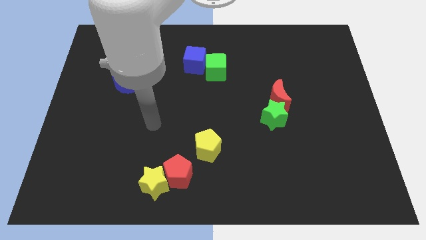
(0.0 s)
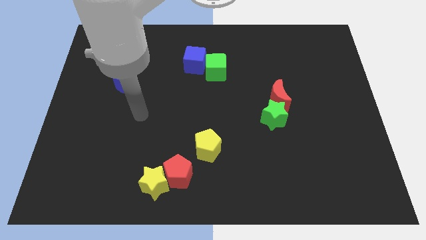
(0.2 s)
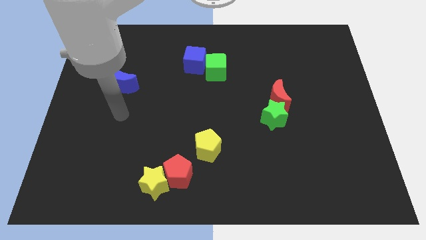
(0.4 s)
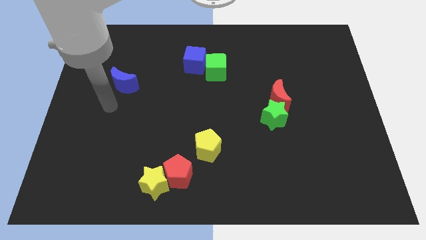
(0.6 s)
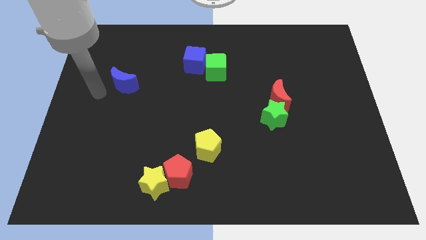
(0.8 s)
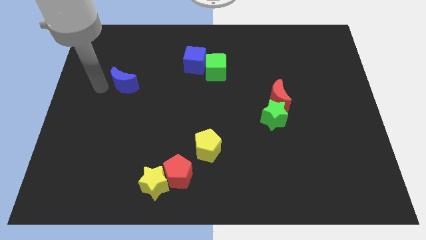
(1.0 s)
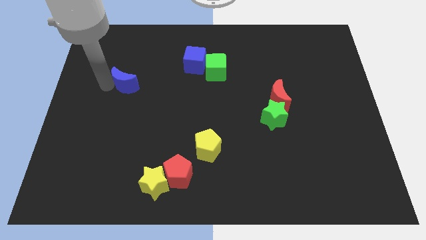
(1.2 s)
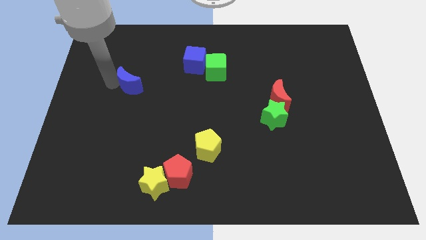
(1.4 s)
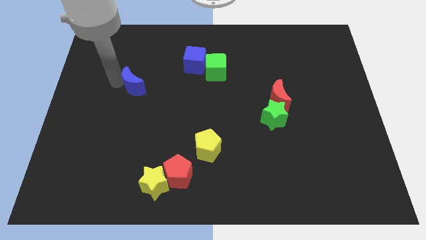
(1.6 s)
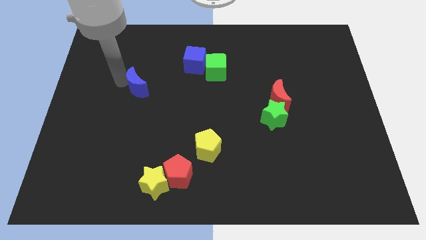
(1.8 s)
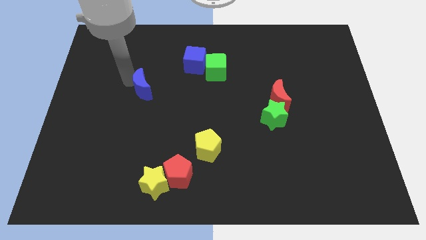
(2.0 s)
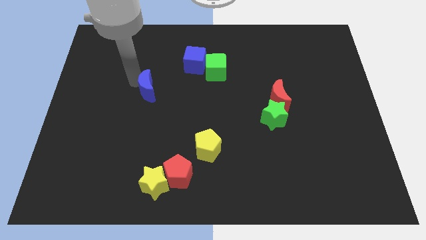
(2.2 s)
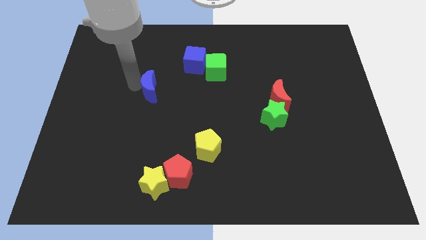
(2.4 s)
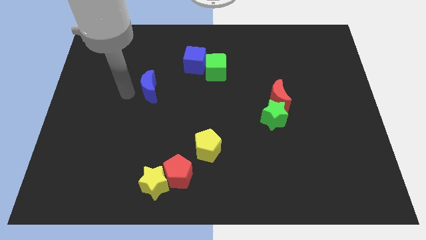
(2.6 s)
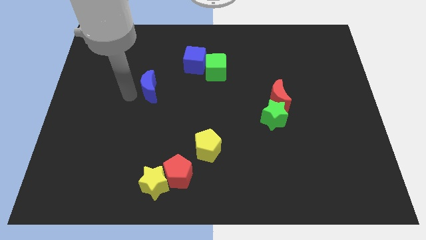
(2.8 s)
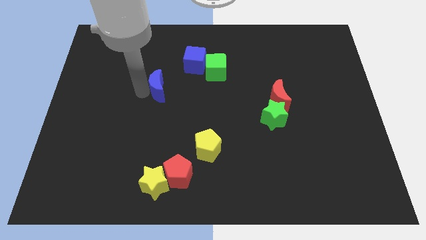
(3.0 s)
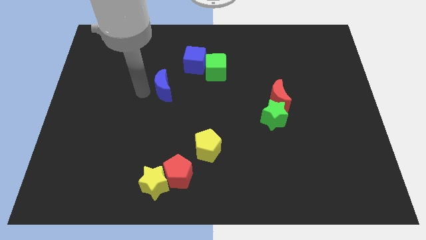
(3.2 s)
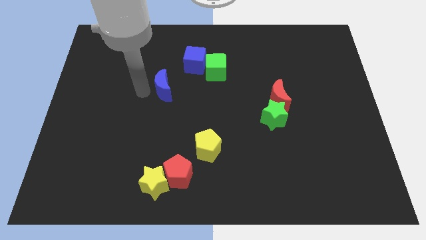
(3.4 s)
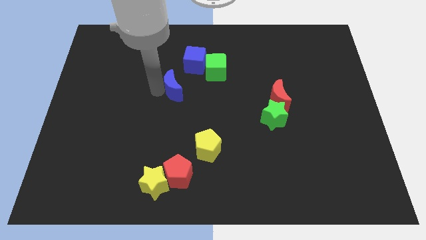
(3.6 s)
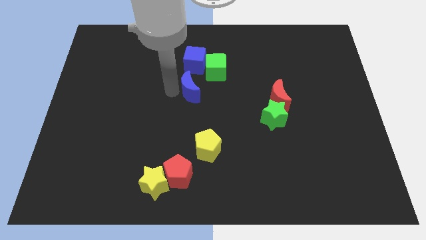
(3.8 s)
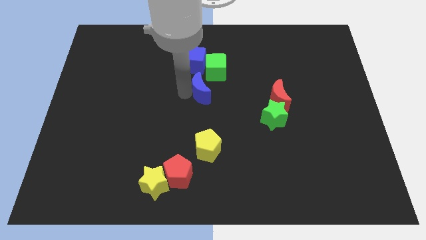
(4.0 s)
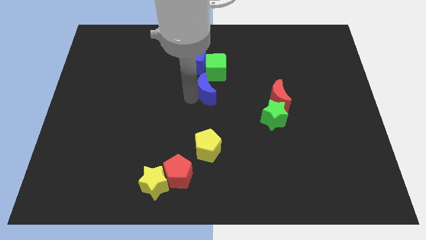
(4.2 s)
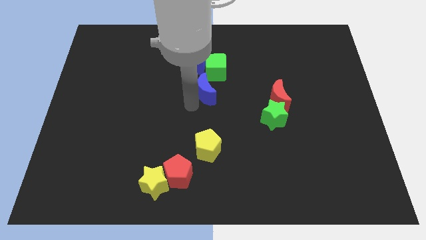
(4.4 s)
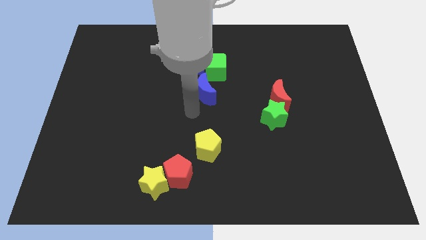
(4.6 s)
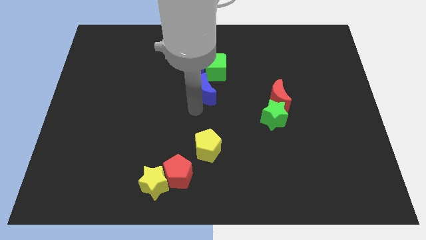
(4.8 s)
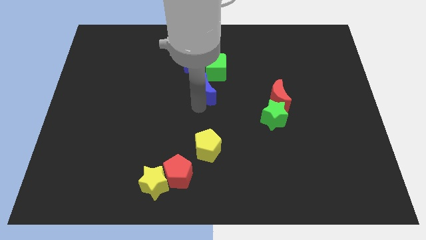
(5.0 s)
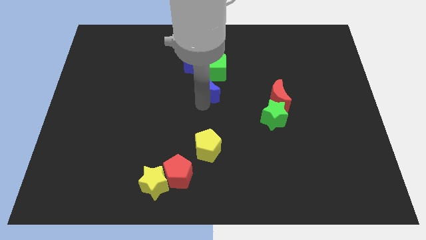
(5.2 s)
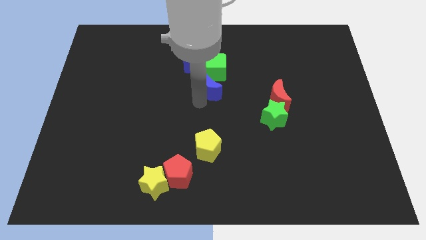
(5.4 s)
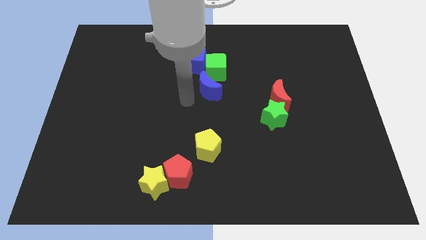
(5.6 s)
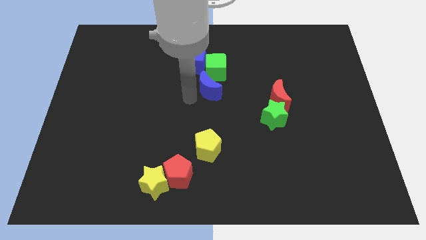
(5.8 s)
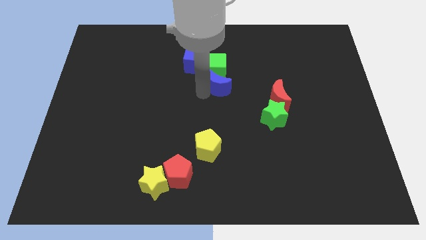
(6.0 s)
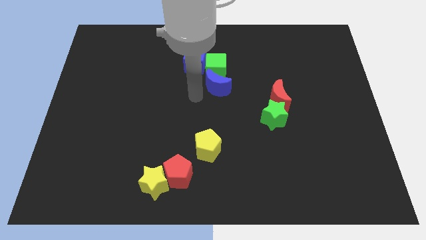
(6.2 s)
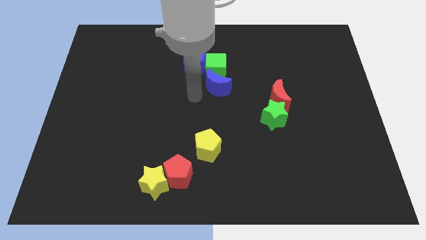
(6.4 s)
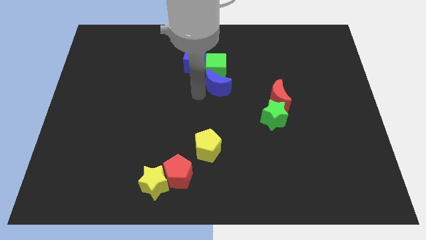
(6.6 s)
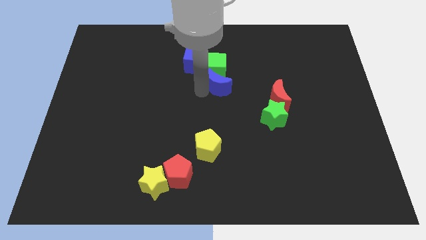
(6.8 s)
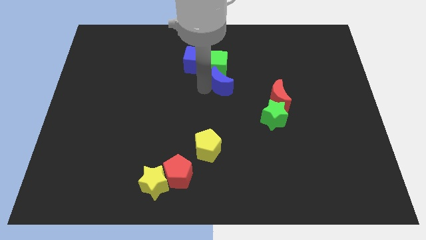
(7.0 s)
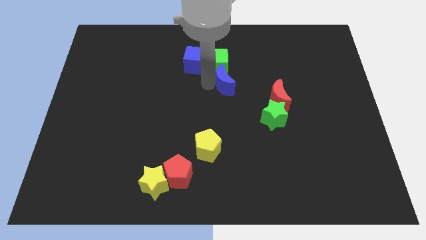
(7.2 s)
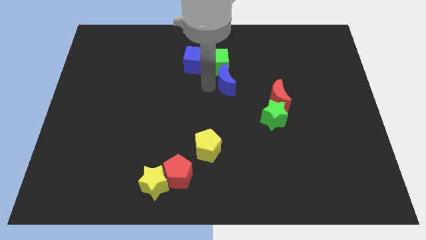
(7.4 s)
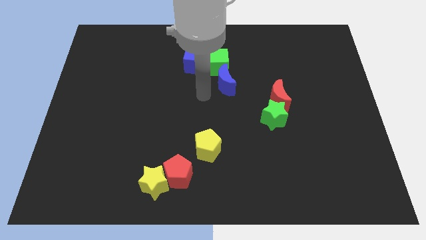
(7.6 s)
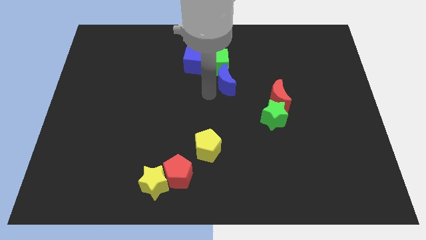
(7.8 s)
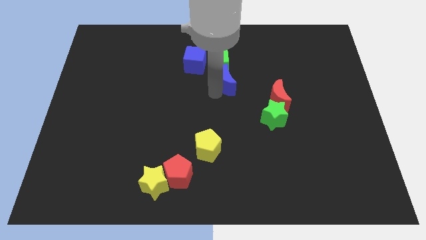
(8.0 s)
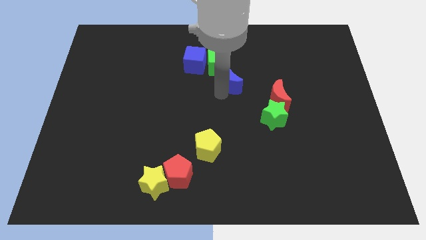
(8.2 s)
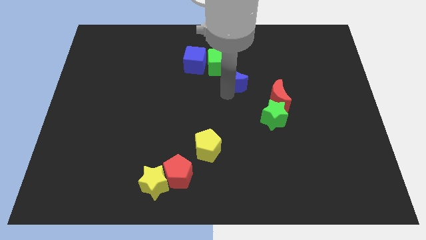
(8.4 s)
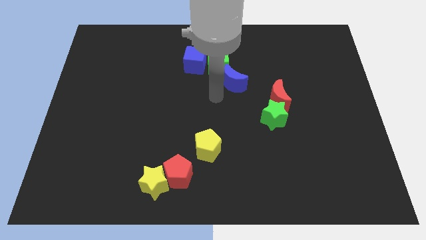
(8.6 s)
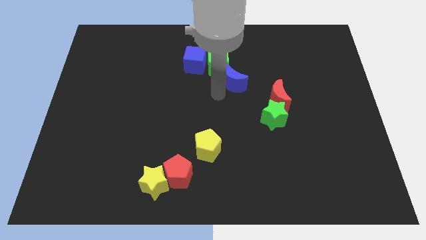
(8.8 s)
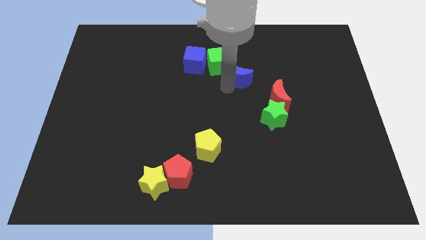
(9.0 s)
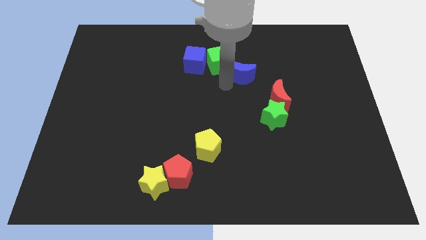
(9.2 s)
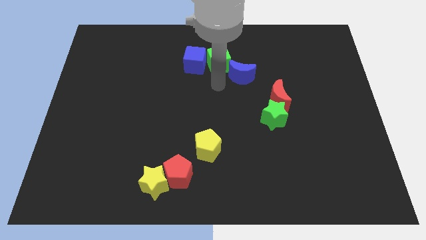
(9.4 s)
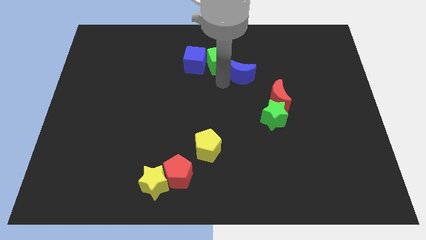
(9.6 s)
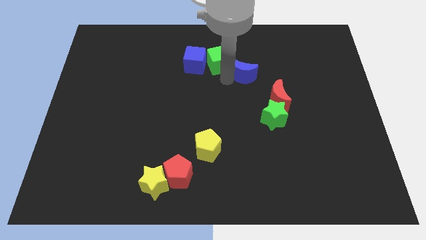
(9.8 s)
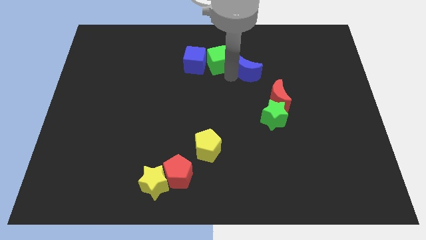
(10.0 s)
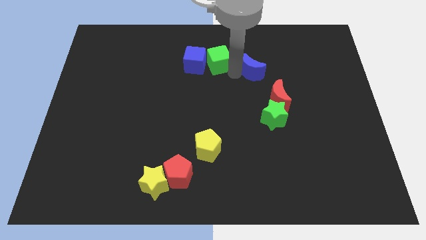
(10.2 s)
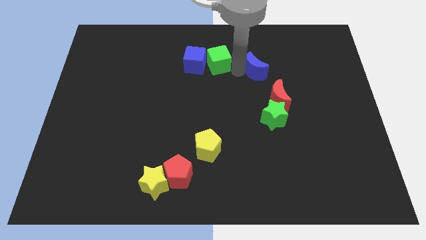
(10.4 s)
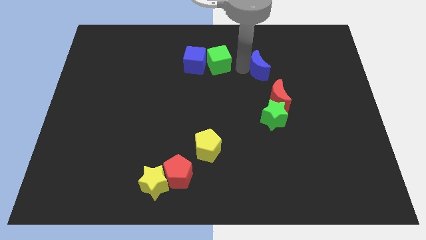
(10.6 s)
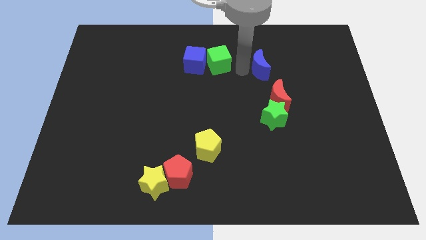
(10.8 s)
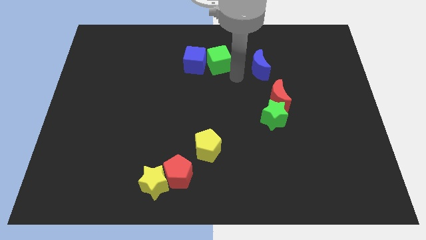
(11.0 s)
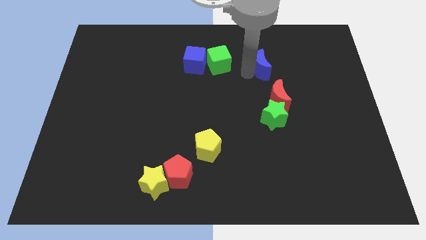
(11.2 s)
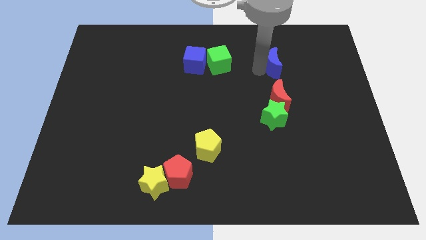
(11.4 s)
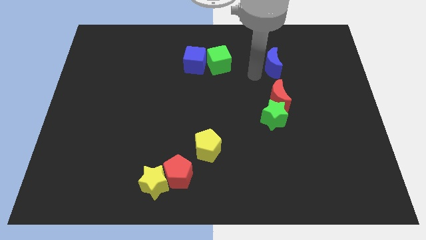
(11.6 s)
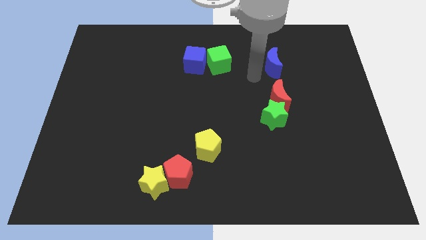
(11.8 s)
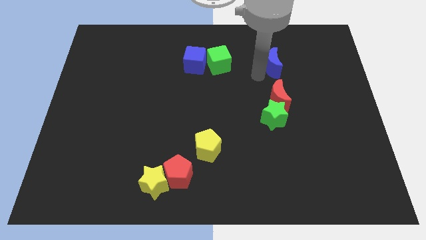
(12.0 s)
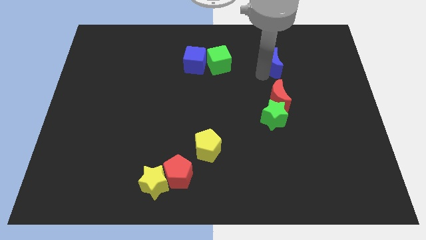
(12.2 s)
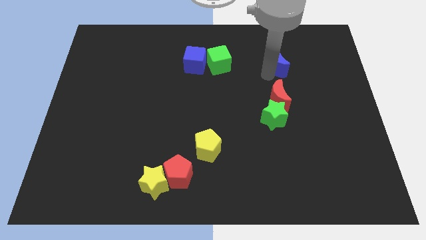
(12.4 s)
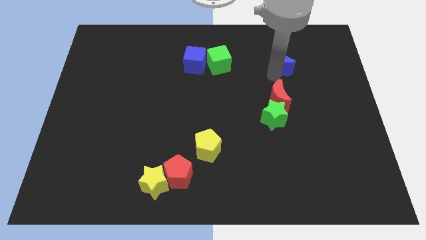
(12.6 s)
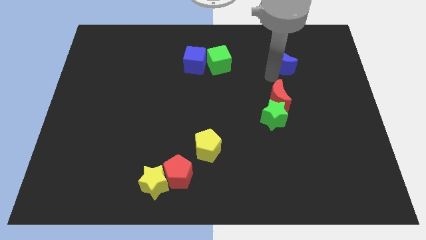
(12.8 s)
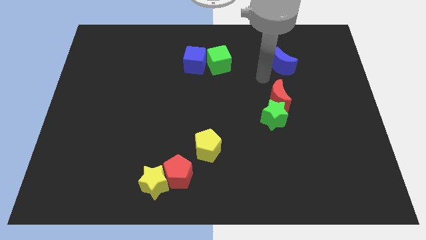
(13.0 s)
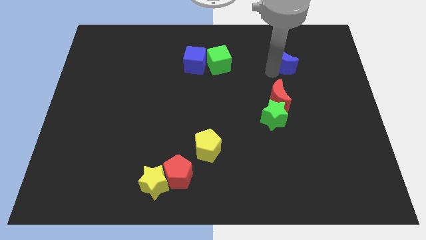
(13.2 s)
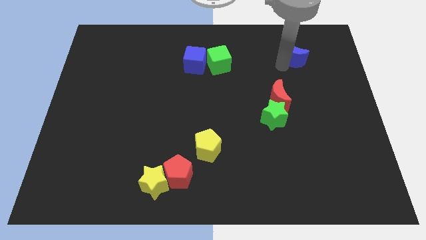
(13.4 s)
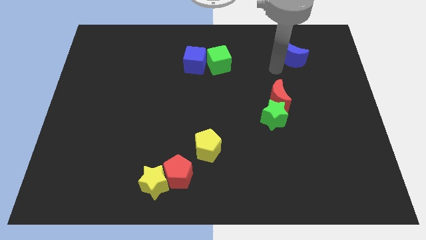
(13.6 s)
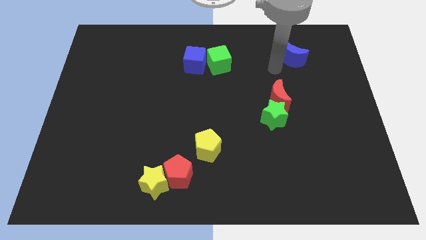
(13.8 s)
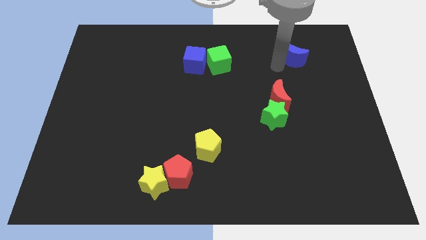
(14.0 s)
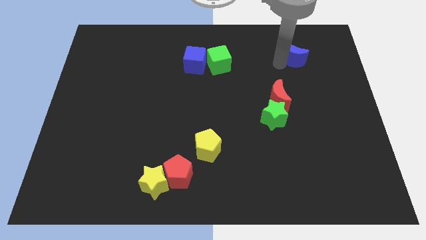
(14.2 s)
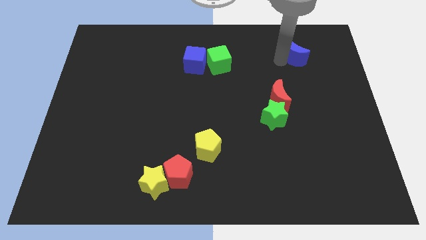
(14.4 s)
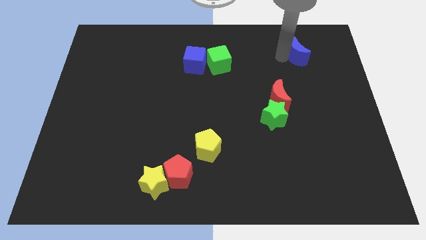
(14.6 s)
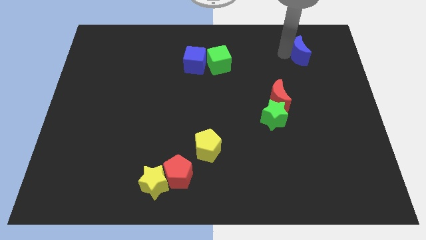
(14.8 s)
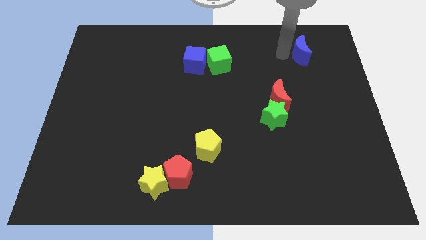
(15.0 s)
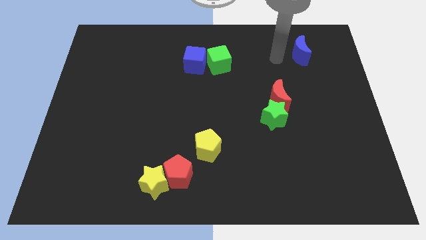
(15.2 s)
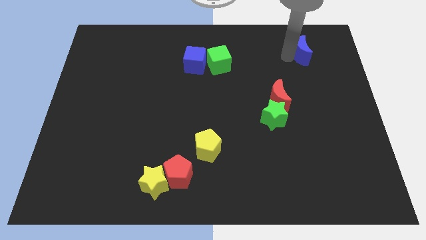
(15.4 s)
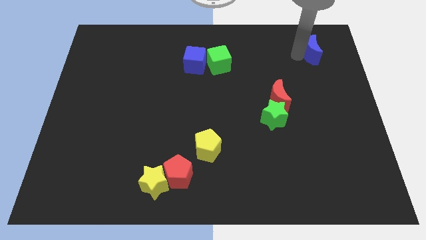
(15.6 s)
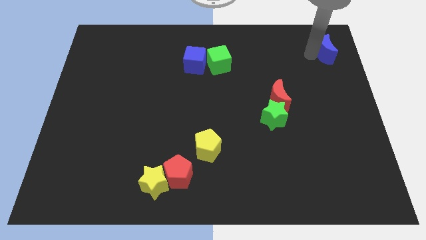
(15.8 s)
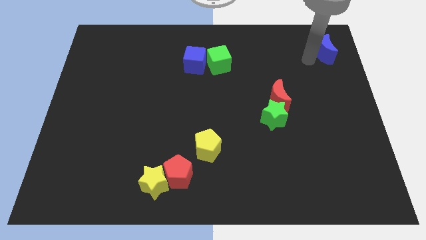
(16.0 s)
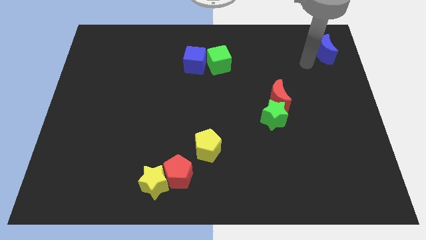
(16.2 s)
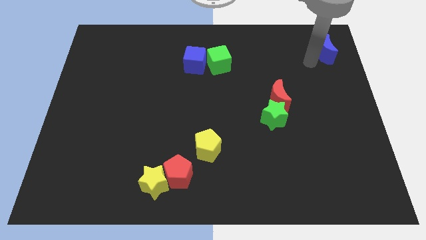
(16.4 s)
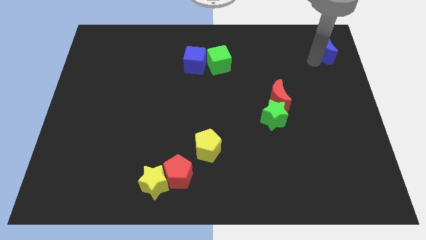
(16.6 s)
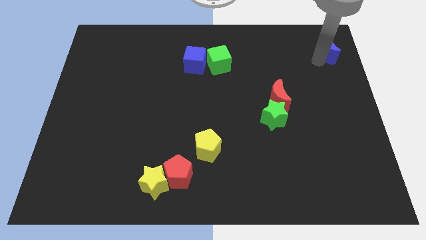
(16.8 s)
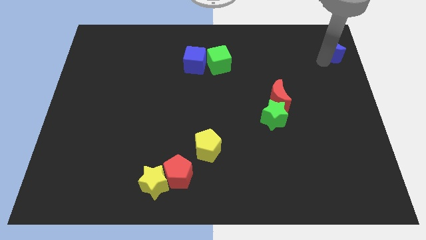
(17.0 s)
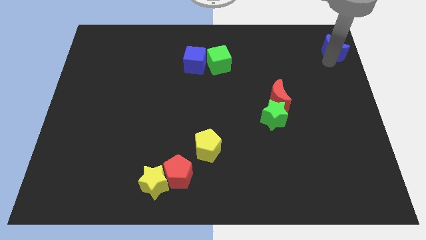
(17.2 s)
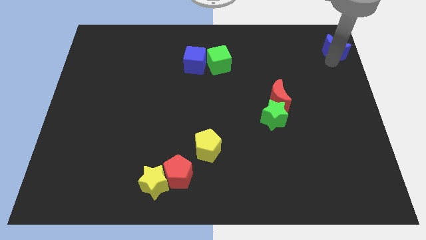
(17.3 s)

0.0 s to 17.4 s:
push the blue moon to the top right of the board
